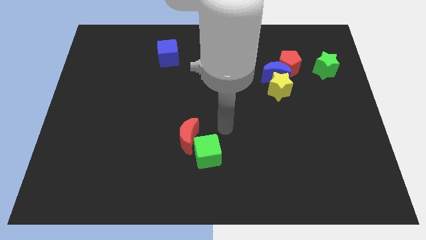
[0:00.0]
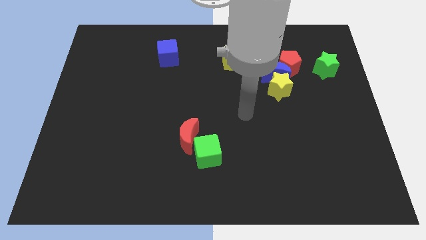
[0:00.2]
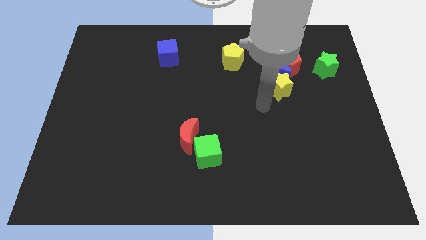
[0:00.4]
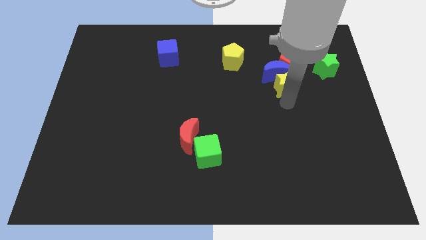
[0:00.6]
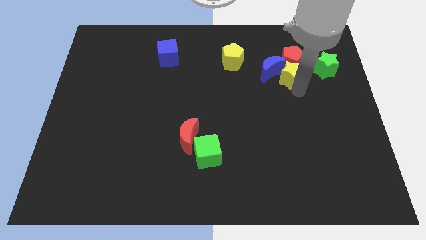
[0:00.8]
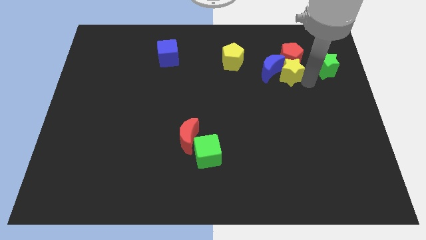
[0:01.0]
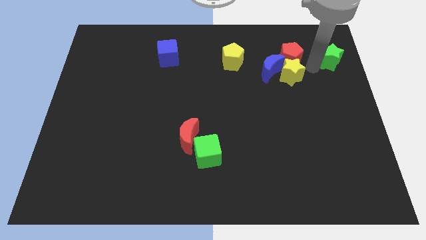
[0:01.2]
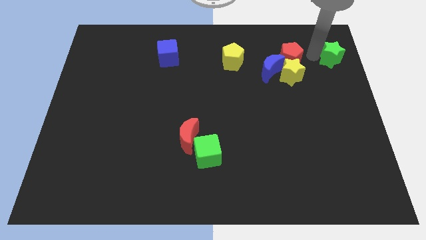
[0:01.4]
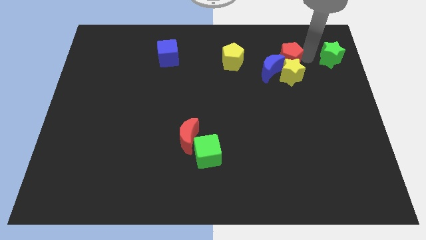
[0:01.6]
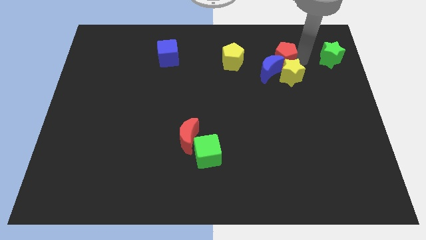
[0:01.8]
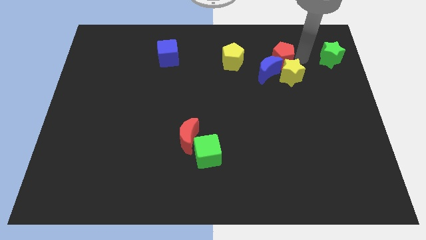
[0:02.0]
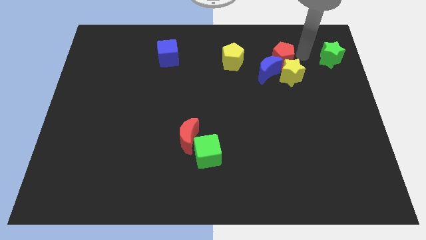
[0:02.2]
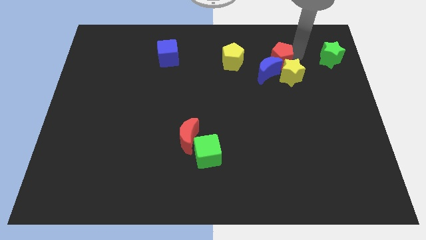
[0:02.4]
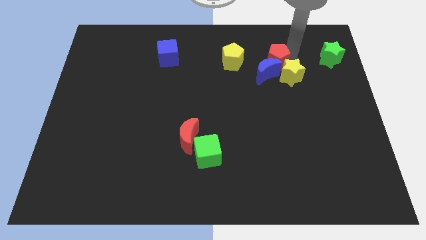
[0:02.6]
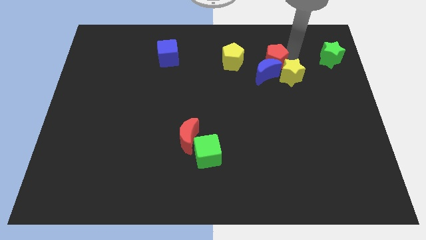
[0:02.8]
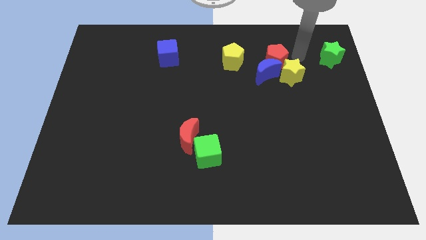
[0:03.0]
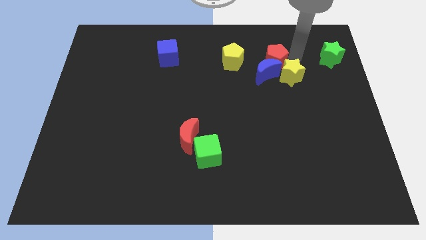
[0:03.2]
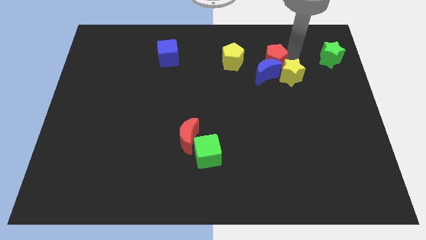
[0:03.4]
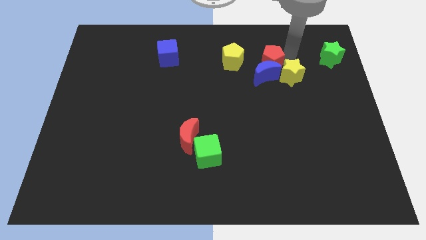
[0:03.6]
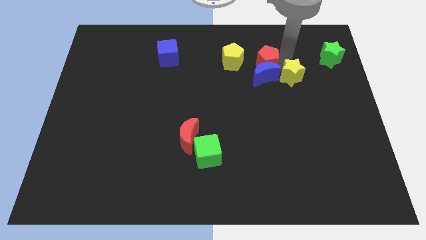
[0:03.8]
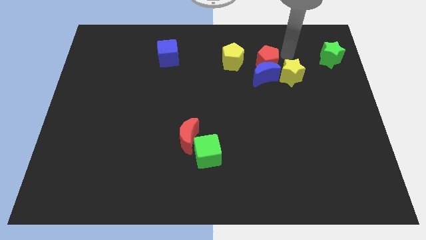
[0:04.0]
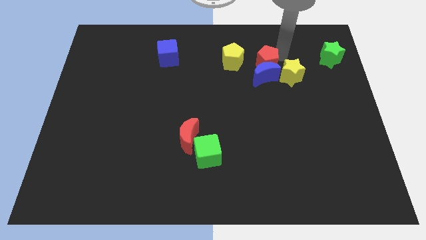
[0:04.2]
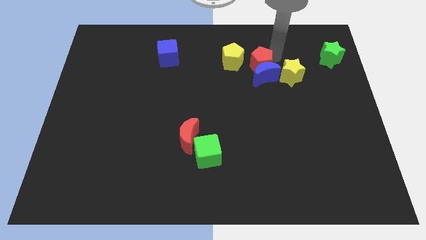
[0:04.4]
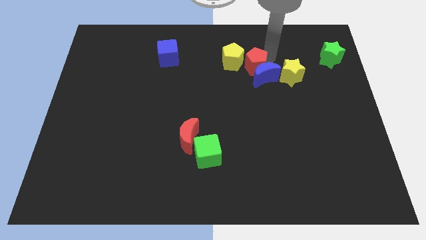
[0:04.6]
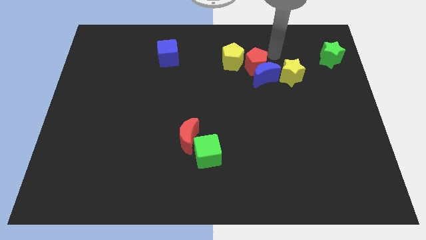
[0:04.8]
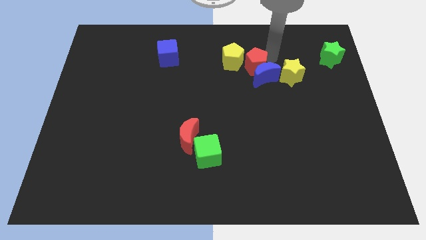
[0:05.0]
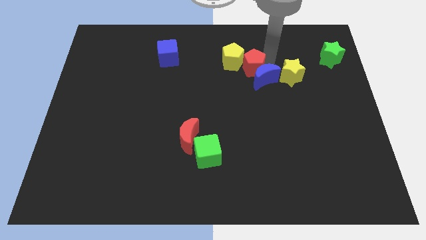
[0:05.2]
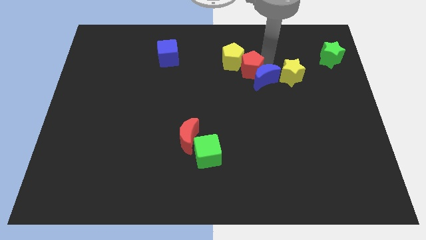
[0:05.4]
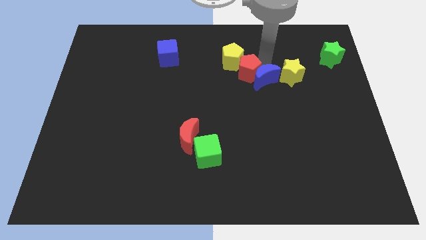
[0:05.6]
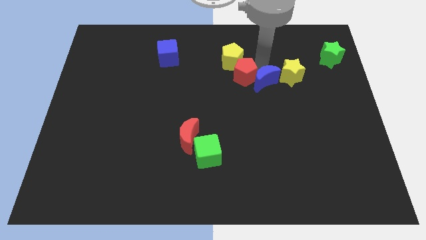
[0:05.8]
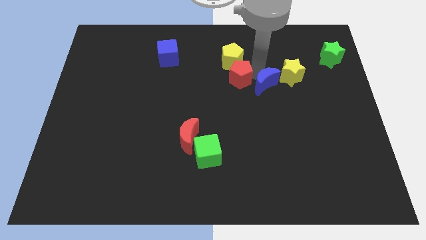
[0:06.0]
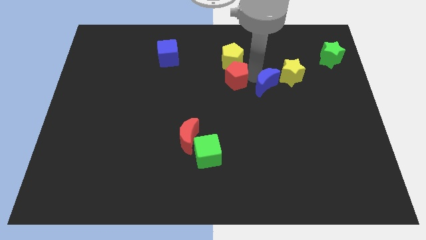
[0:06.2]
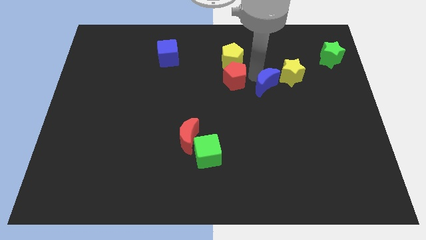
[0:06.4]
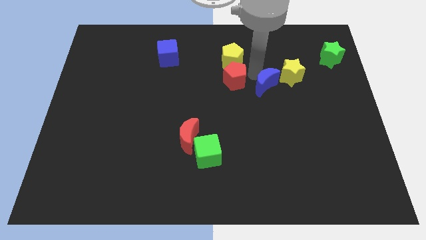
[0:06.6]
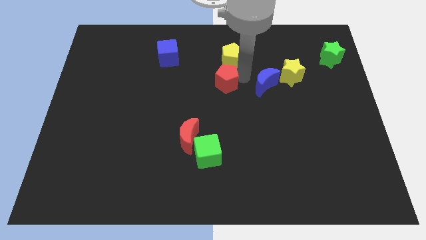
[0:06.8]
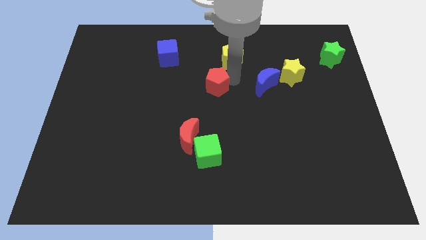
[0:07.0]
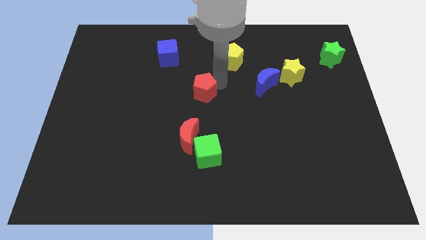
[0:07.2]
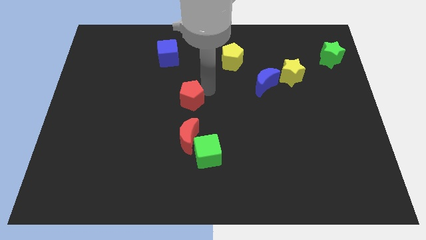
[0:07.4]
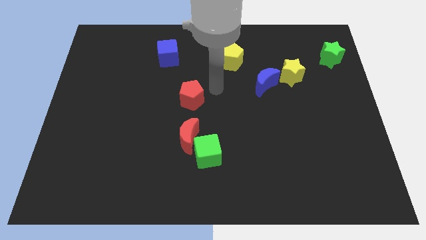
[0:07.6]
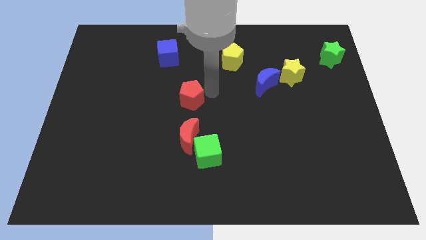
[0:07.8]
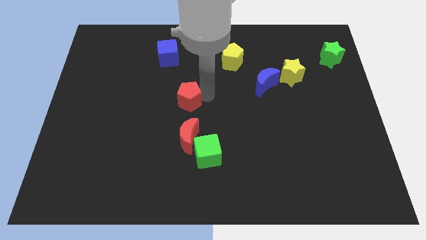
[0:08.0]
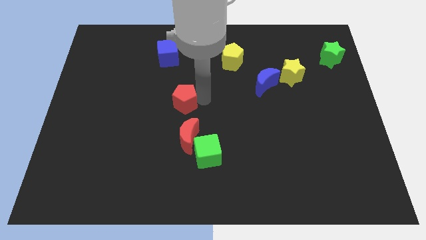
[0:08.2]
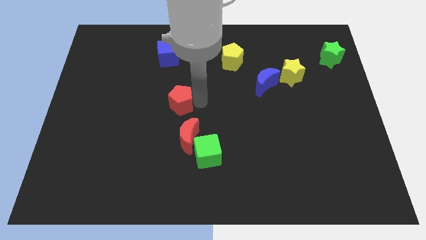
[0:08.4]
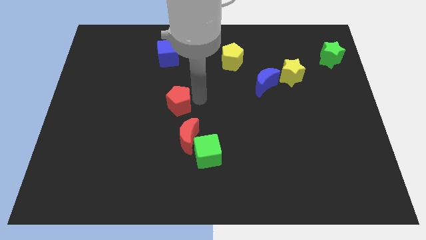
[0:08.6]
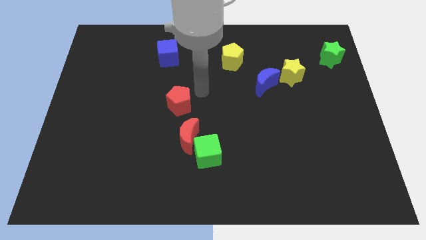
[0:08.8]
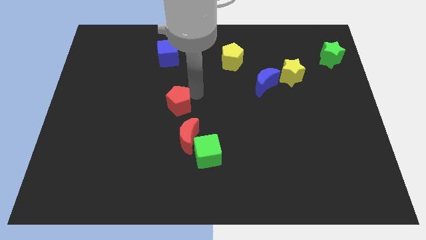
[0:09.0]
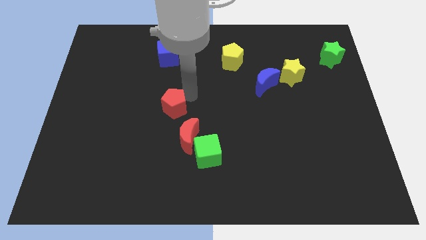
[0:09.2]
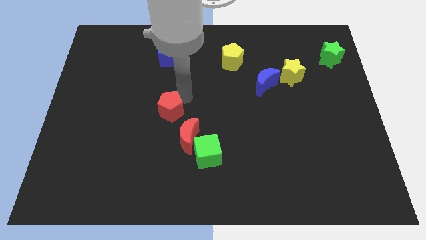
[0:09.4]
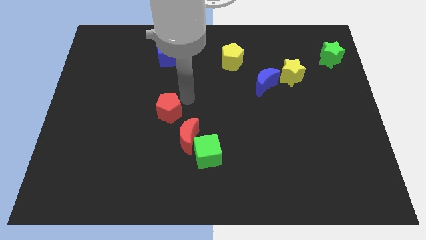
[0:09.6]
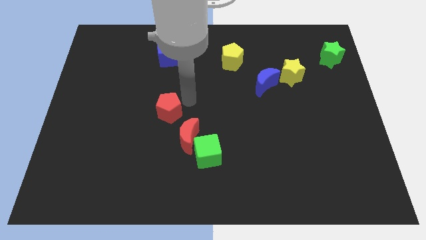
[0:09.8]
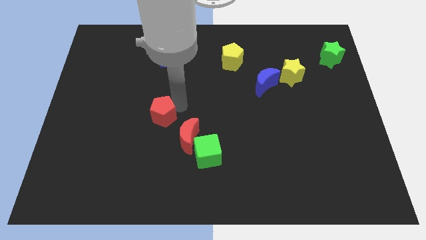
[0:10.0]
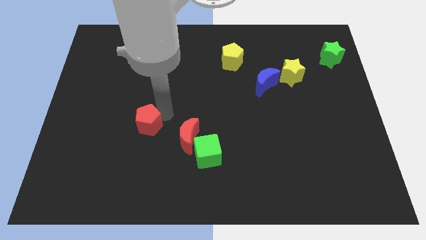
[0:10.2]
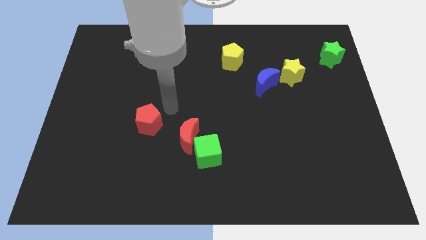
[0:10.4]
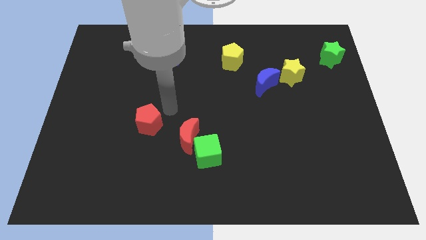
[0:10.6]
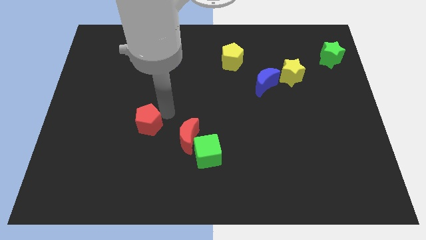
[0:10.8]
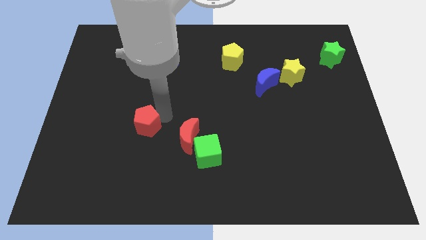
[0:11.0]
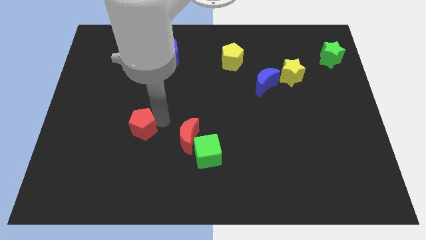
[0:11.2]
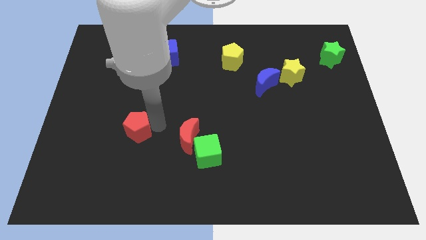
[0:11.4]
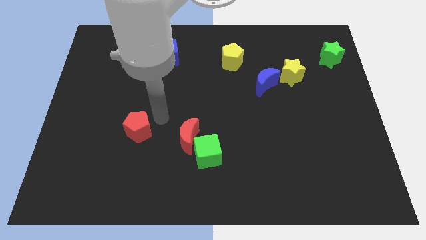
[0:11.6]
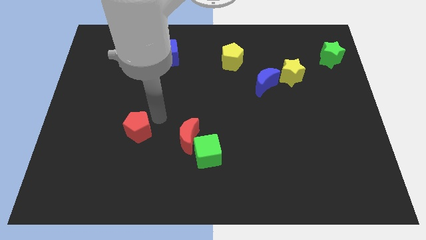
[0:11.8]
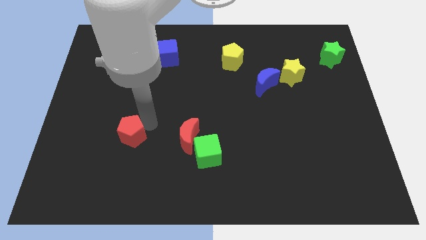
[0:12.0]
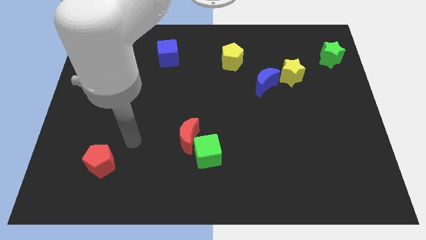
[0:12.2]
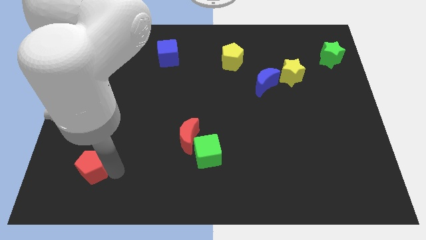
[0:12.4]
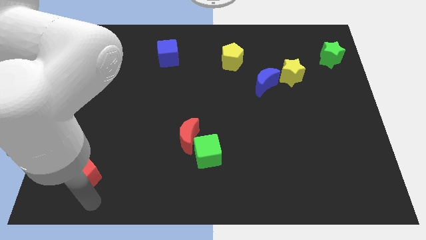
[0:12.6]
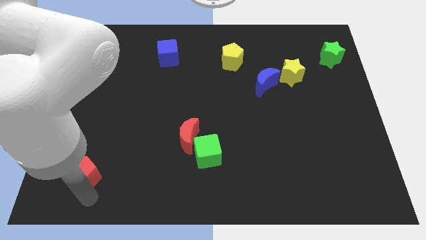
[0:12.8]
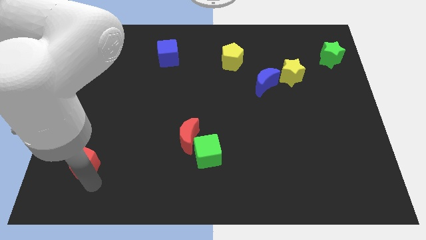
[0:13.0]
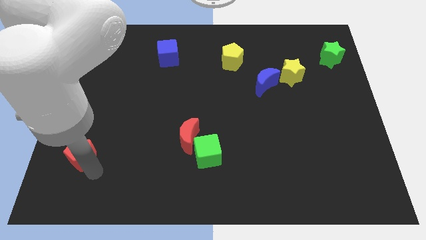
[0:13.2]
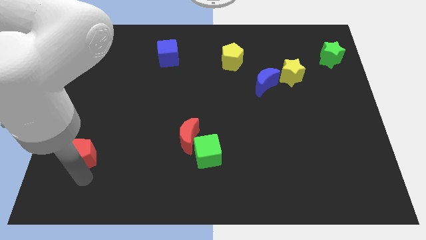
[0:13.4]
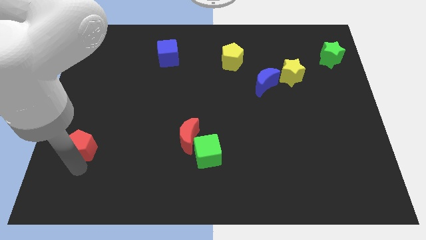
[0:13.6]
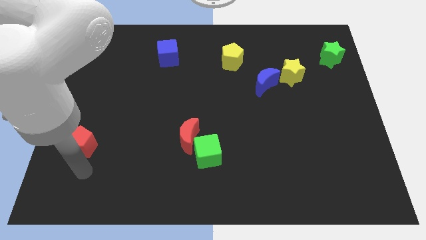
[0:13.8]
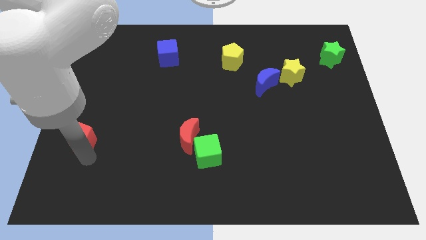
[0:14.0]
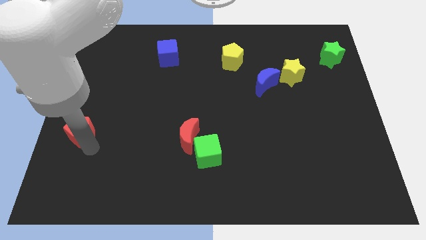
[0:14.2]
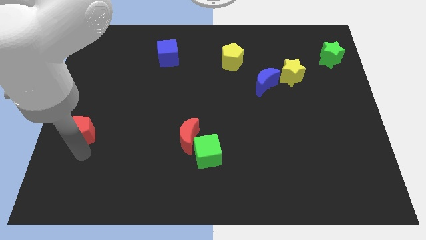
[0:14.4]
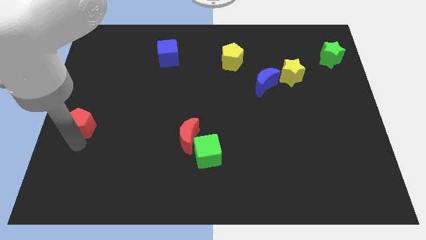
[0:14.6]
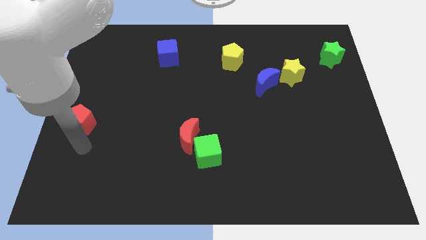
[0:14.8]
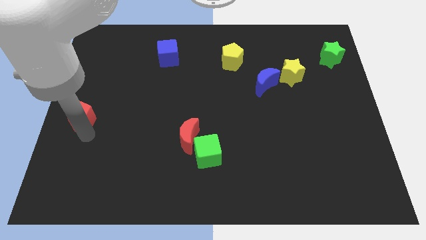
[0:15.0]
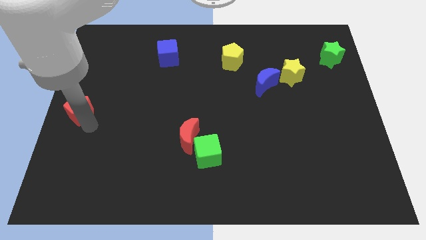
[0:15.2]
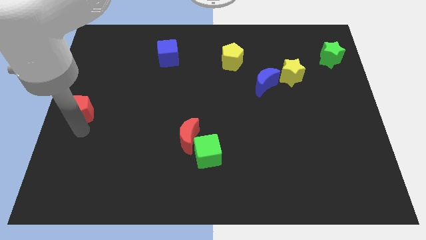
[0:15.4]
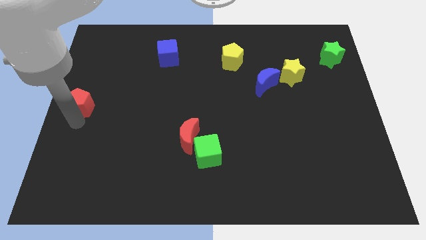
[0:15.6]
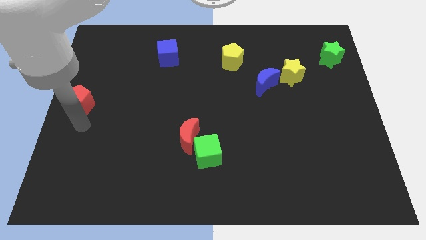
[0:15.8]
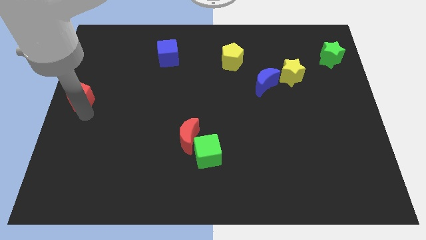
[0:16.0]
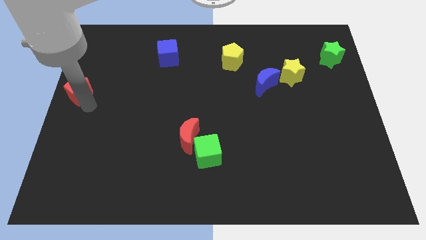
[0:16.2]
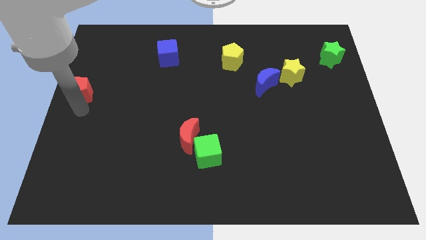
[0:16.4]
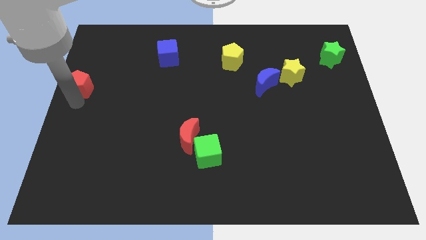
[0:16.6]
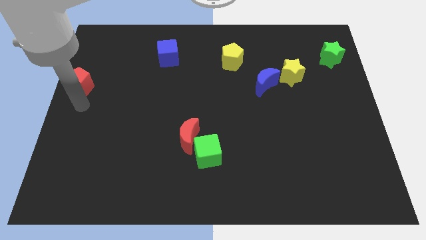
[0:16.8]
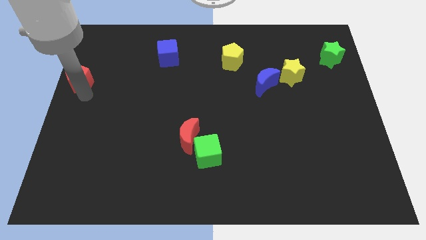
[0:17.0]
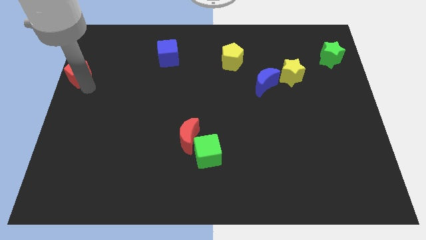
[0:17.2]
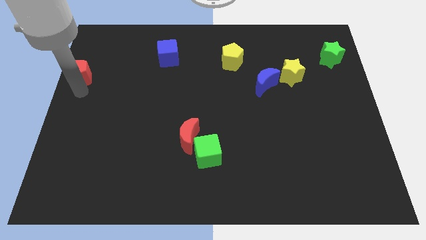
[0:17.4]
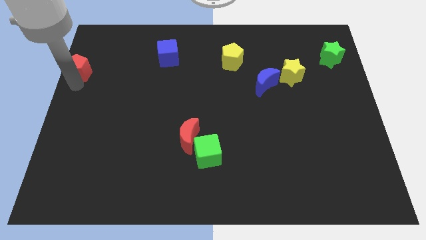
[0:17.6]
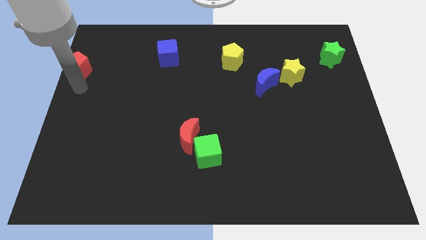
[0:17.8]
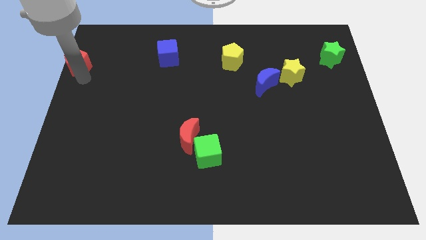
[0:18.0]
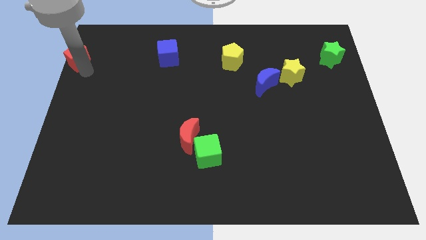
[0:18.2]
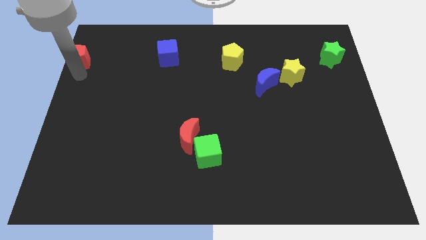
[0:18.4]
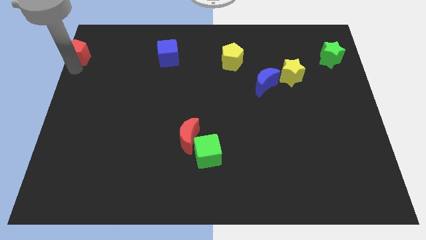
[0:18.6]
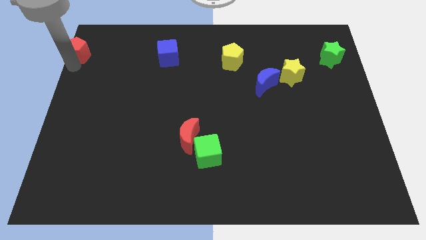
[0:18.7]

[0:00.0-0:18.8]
put the red pentagon to the top left corner
